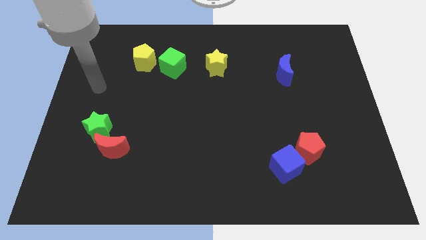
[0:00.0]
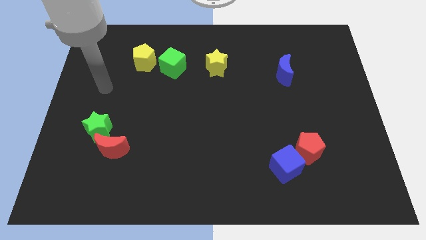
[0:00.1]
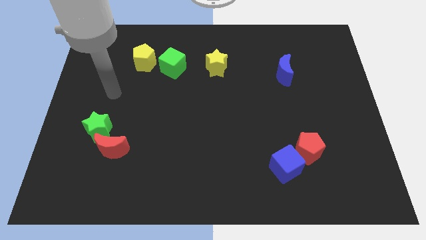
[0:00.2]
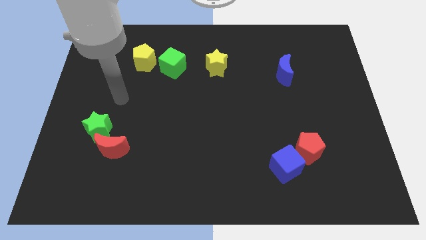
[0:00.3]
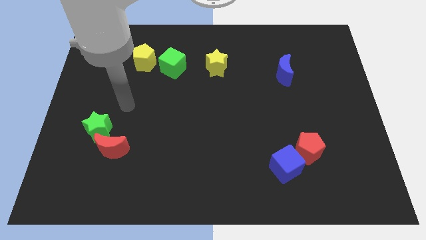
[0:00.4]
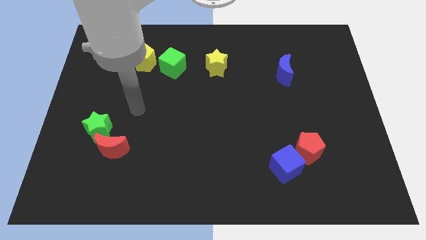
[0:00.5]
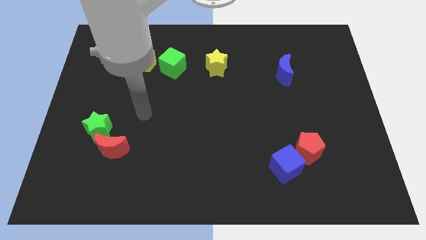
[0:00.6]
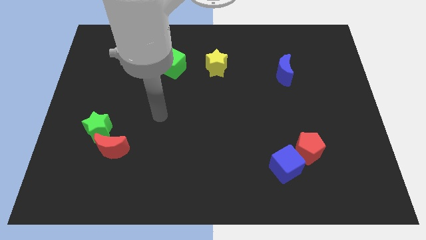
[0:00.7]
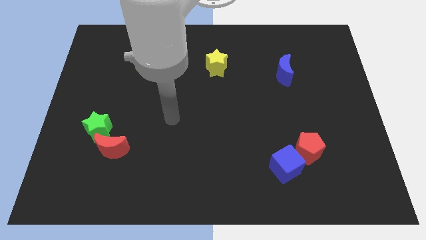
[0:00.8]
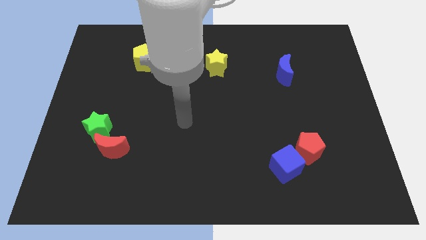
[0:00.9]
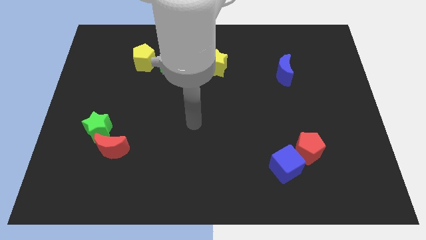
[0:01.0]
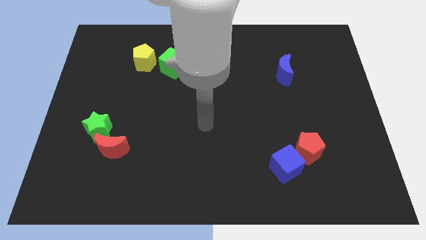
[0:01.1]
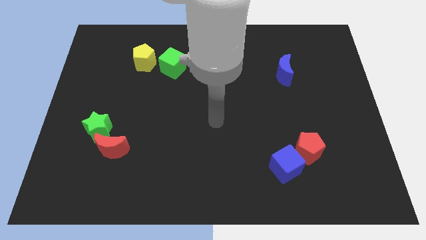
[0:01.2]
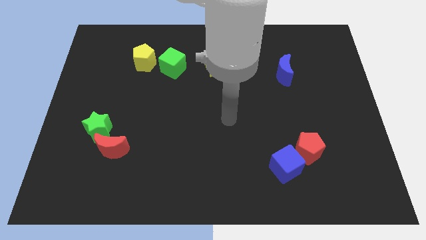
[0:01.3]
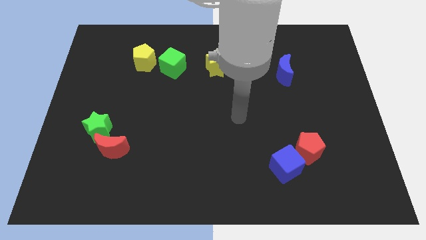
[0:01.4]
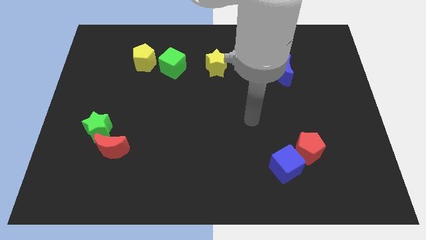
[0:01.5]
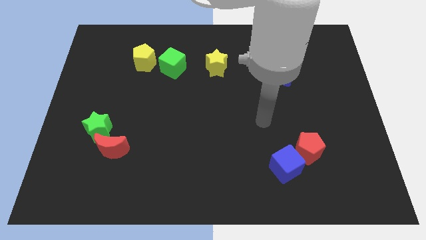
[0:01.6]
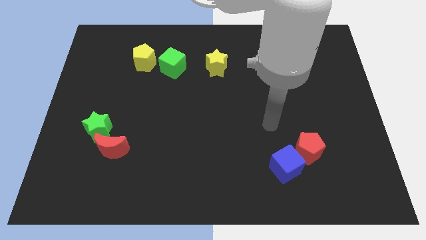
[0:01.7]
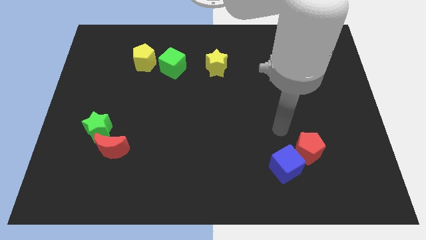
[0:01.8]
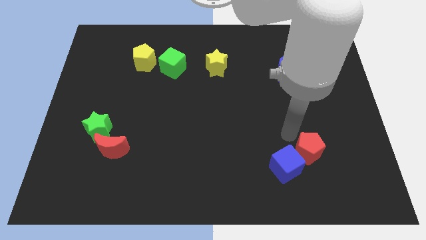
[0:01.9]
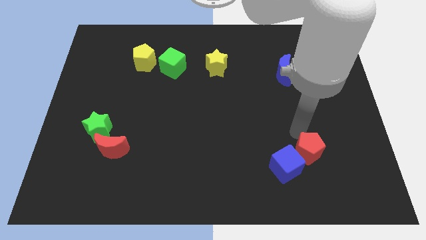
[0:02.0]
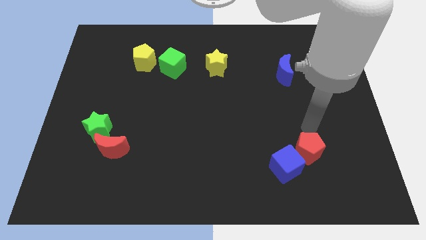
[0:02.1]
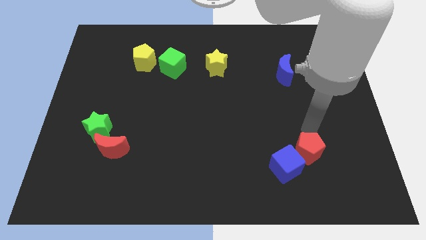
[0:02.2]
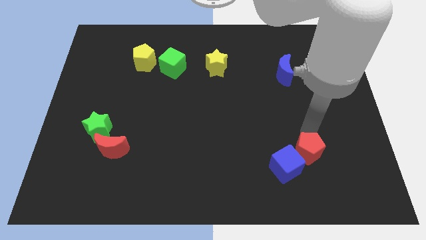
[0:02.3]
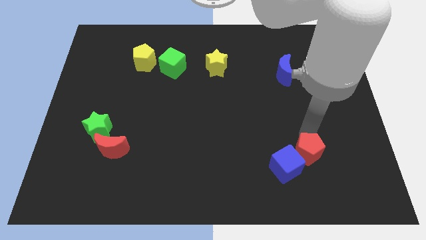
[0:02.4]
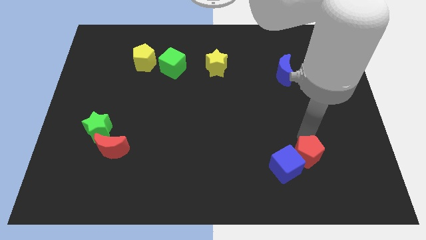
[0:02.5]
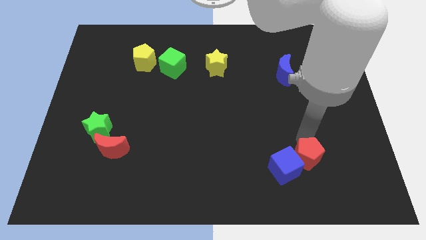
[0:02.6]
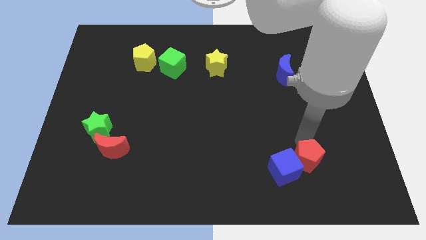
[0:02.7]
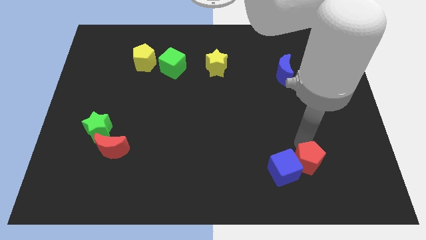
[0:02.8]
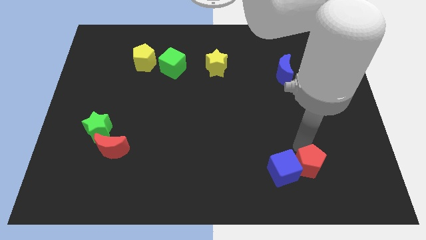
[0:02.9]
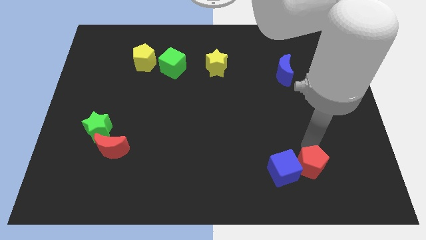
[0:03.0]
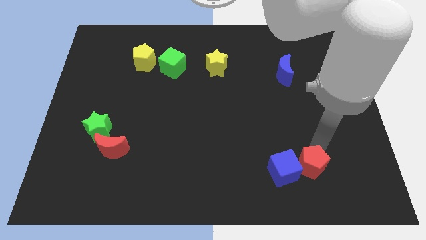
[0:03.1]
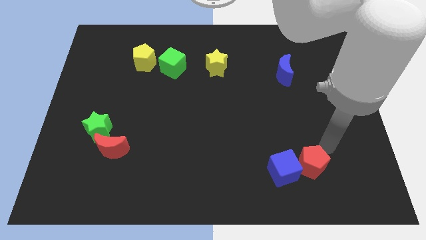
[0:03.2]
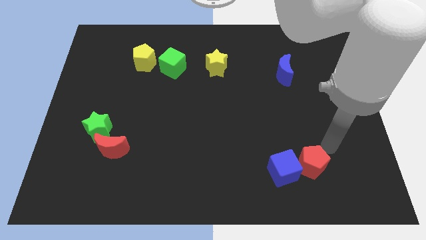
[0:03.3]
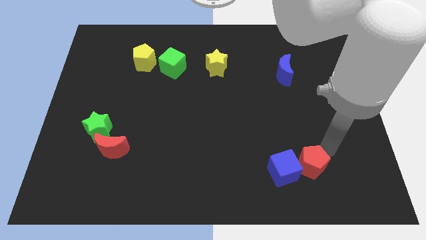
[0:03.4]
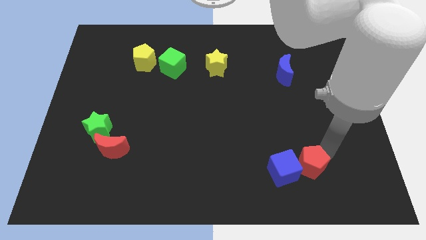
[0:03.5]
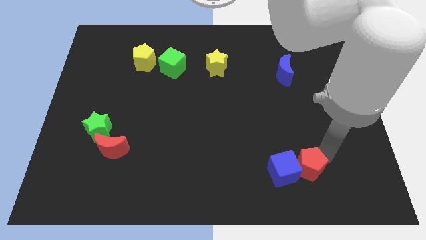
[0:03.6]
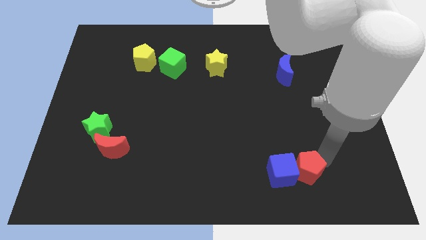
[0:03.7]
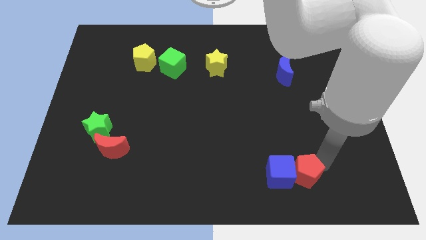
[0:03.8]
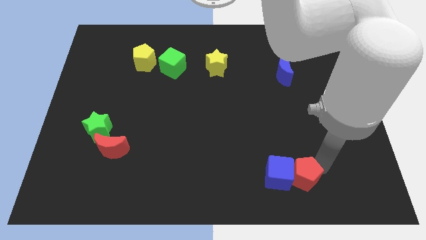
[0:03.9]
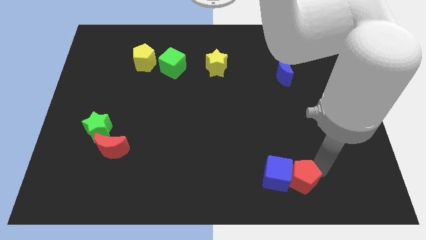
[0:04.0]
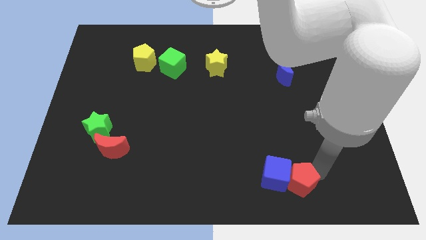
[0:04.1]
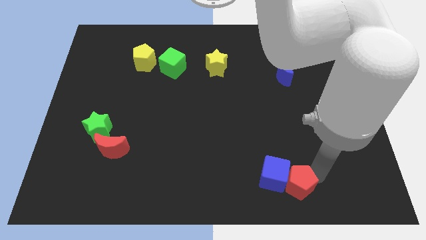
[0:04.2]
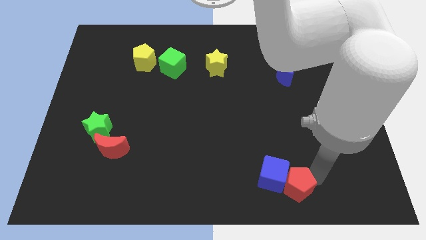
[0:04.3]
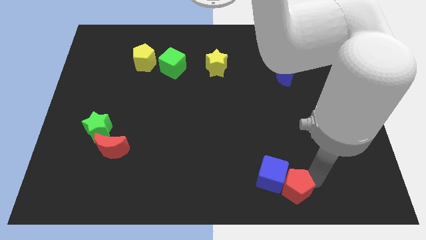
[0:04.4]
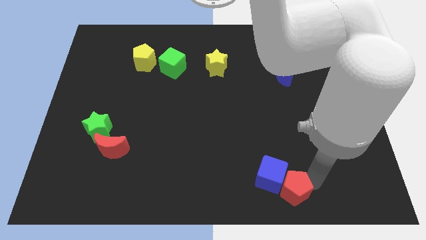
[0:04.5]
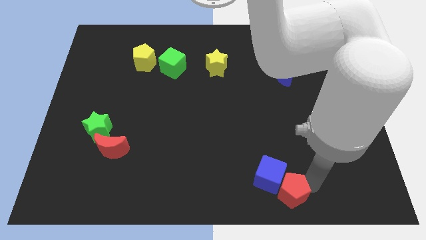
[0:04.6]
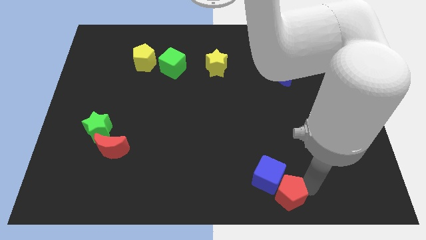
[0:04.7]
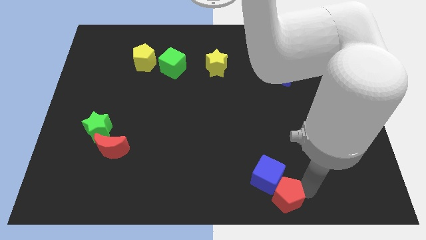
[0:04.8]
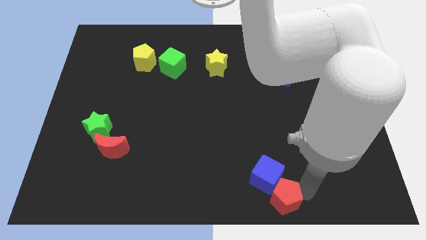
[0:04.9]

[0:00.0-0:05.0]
slide the red pentagon to the bottom side

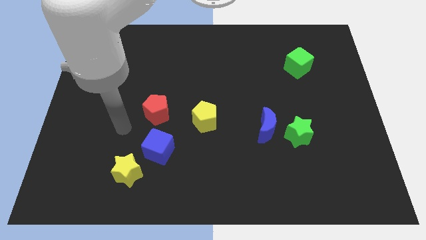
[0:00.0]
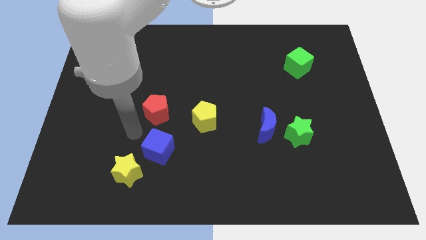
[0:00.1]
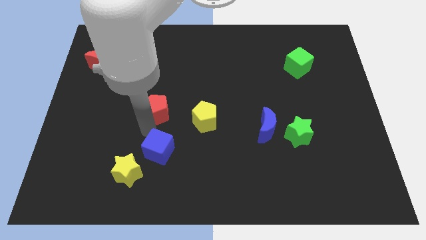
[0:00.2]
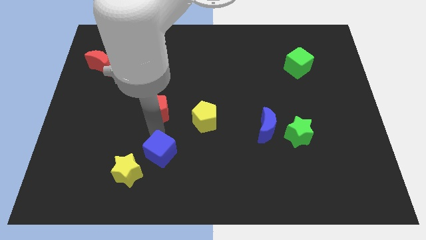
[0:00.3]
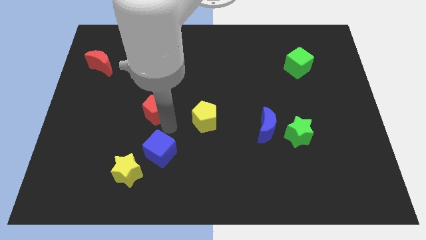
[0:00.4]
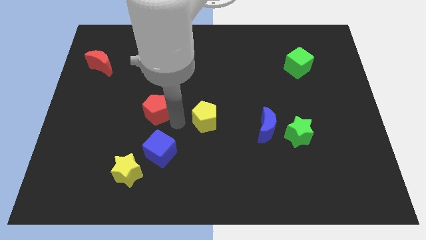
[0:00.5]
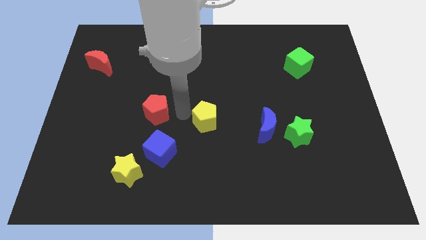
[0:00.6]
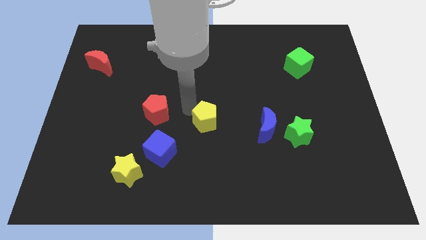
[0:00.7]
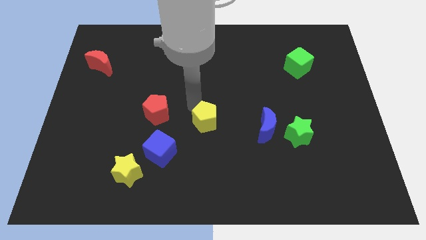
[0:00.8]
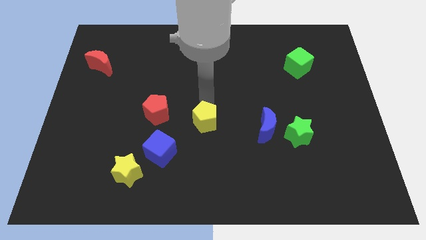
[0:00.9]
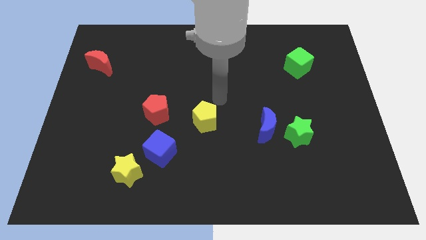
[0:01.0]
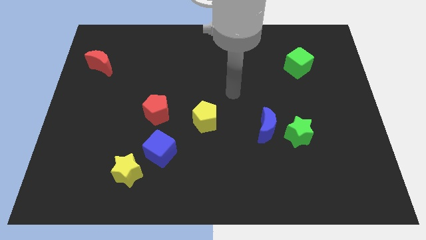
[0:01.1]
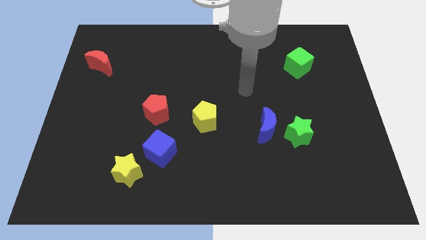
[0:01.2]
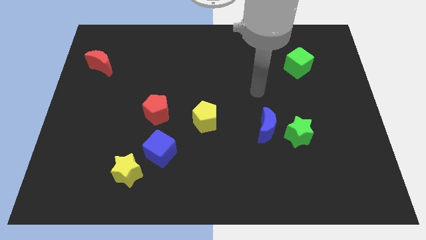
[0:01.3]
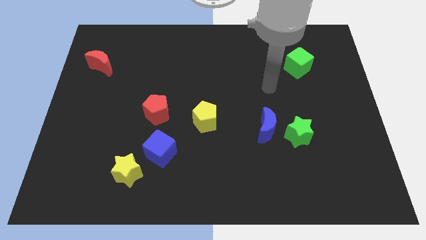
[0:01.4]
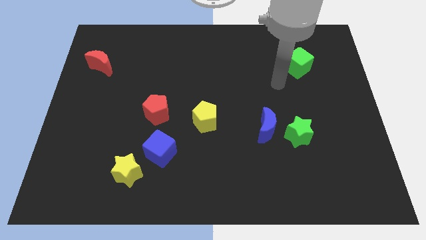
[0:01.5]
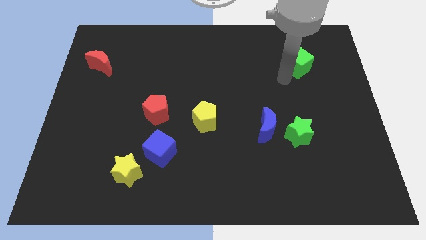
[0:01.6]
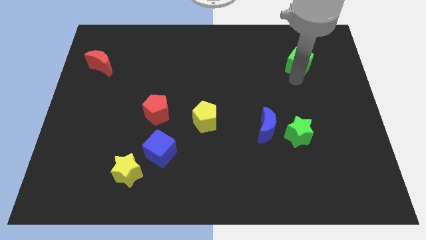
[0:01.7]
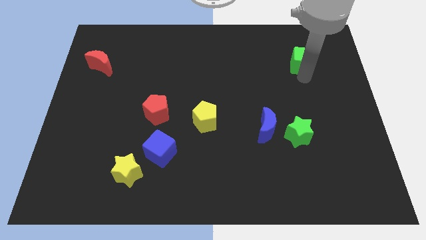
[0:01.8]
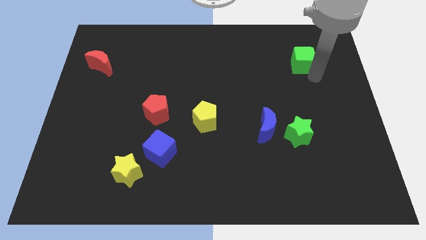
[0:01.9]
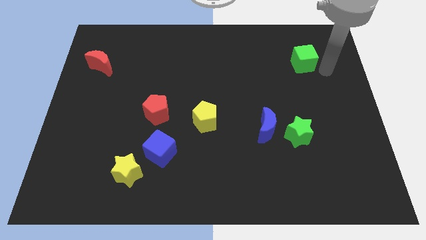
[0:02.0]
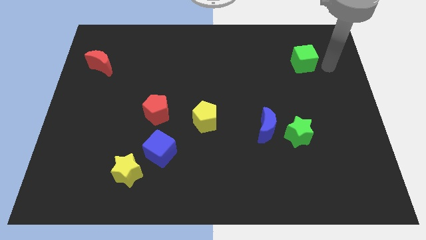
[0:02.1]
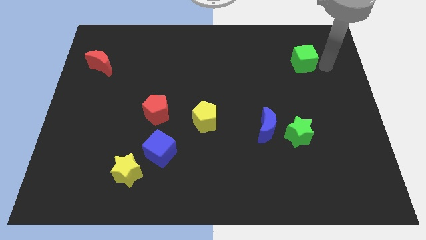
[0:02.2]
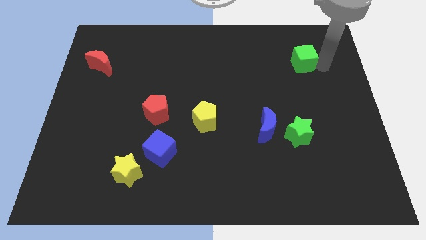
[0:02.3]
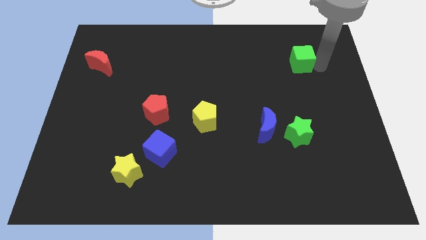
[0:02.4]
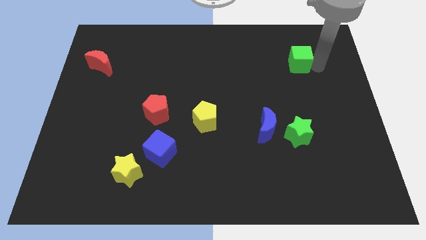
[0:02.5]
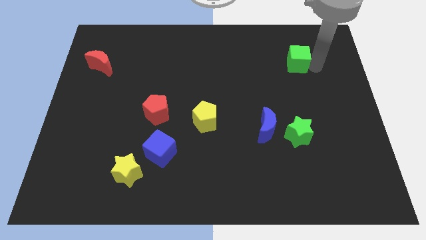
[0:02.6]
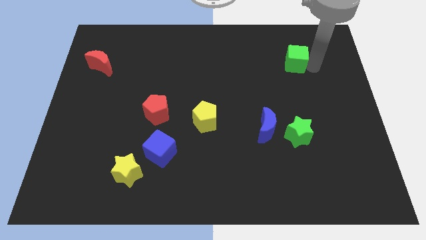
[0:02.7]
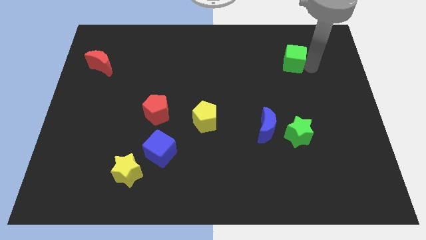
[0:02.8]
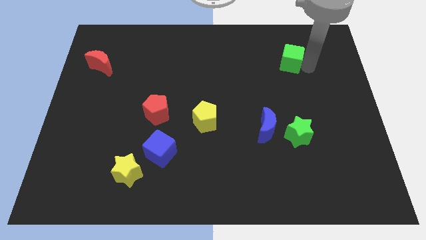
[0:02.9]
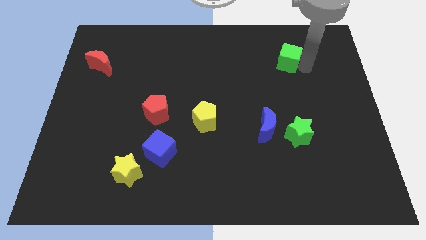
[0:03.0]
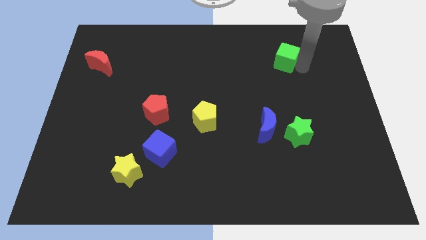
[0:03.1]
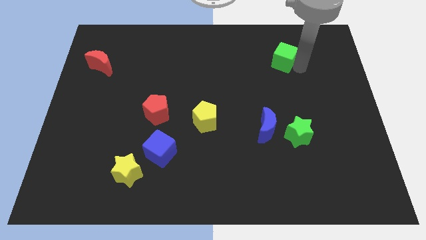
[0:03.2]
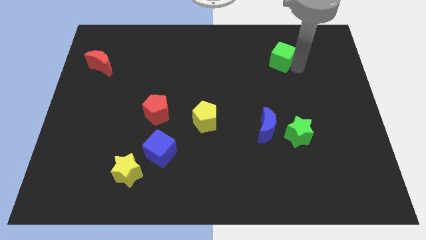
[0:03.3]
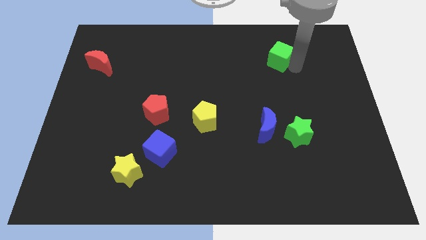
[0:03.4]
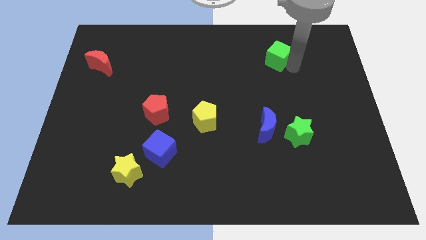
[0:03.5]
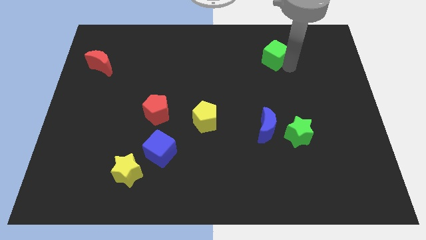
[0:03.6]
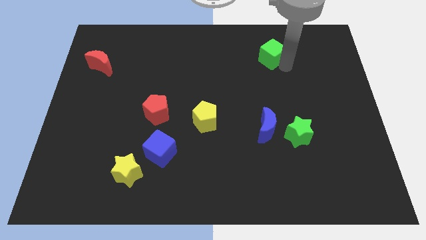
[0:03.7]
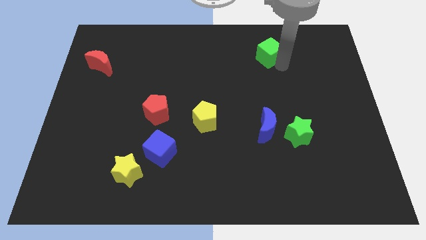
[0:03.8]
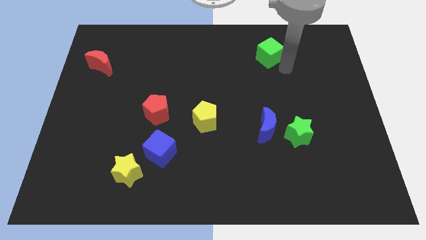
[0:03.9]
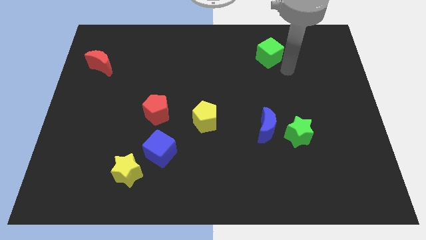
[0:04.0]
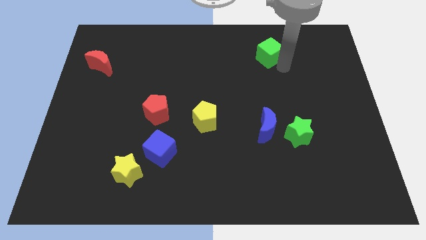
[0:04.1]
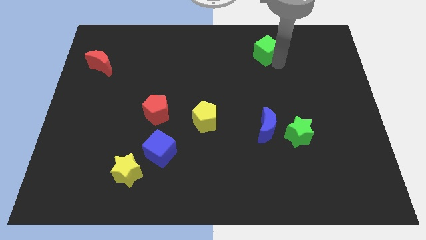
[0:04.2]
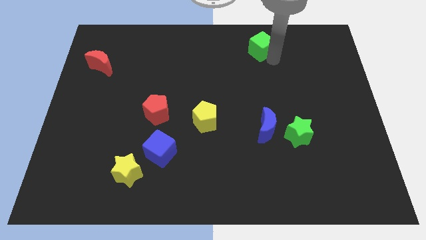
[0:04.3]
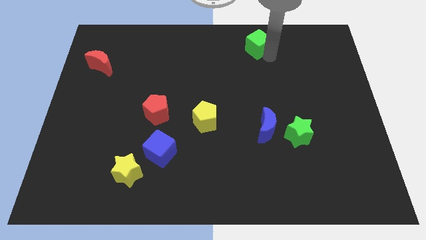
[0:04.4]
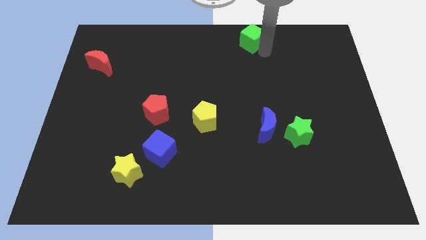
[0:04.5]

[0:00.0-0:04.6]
move the green cube to the top
